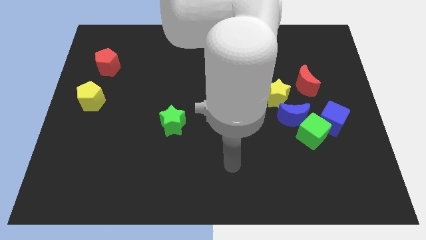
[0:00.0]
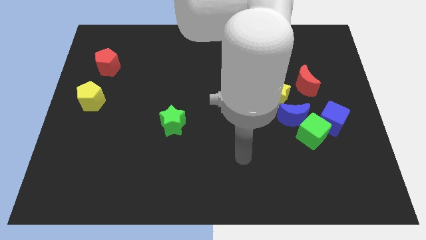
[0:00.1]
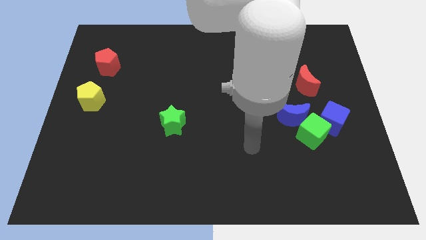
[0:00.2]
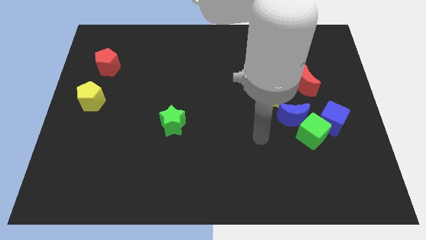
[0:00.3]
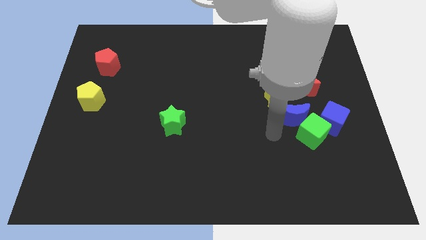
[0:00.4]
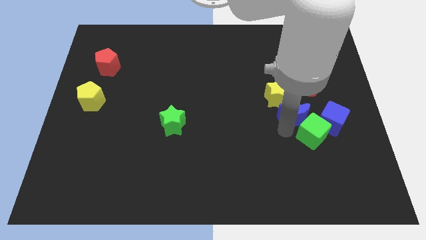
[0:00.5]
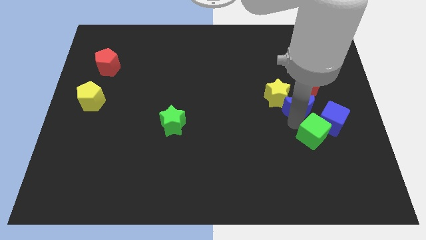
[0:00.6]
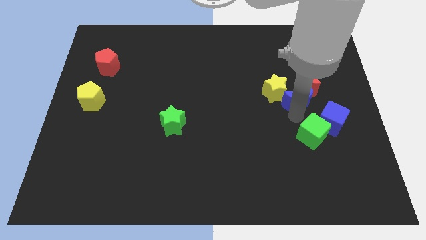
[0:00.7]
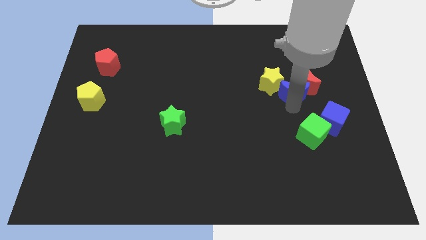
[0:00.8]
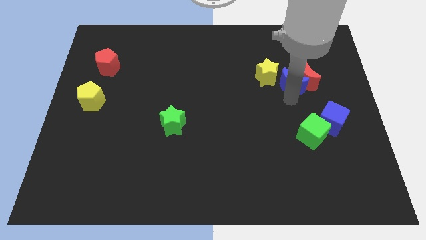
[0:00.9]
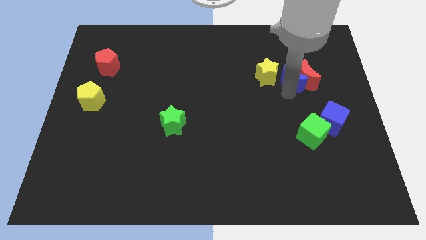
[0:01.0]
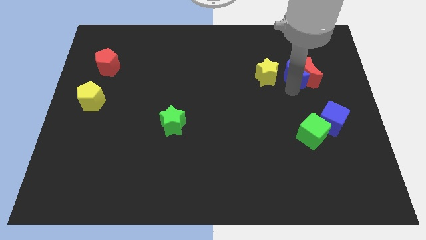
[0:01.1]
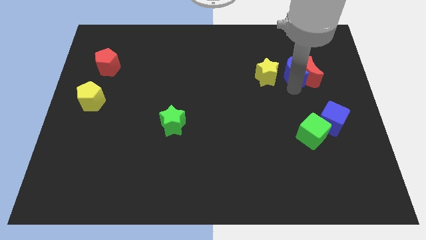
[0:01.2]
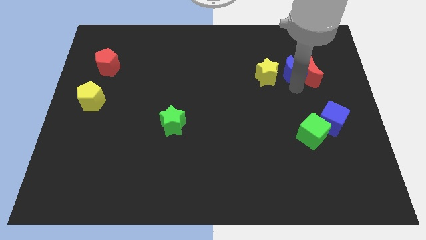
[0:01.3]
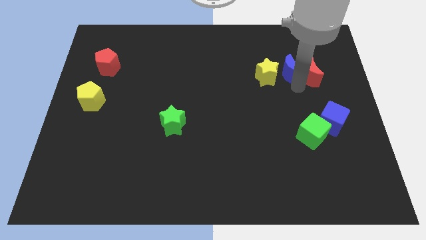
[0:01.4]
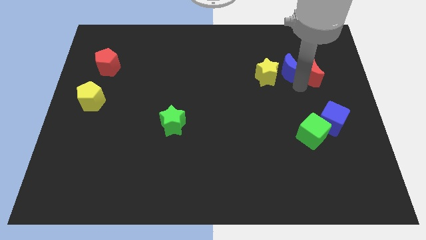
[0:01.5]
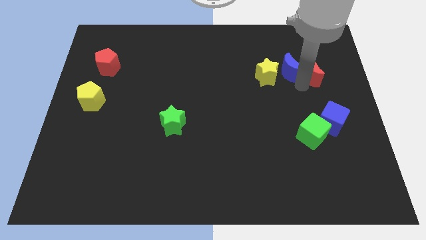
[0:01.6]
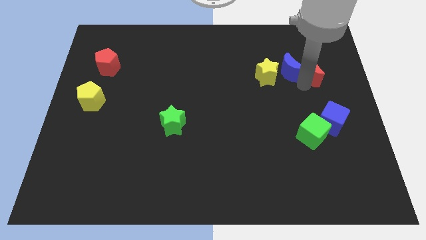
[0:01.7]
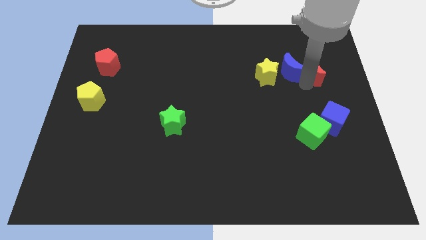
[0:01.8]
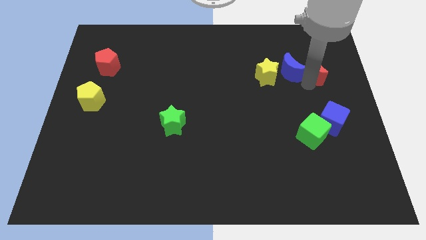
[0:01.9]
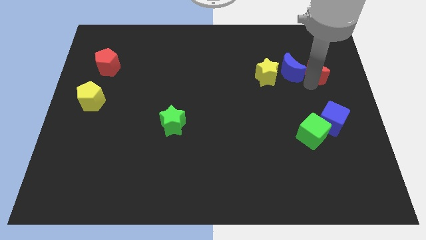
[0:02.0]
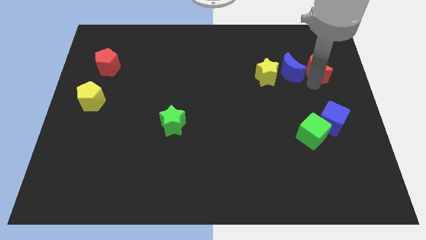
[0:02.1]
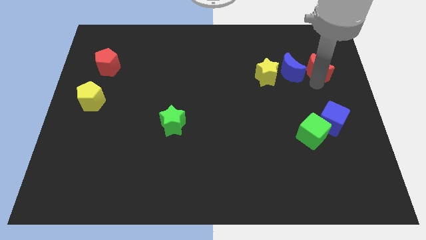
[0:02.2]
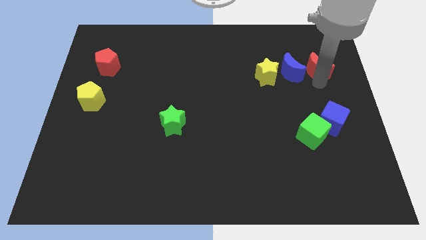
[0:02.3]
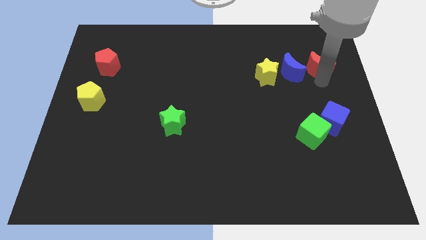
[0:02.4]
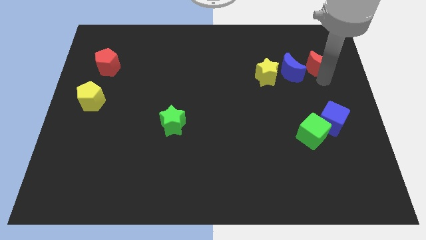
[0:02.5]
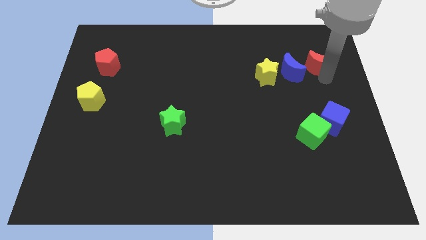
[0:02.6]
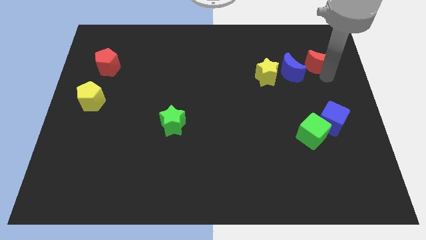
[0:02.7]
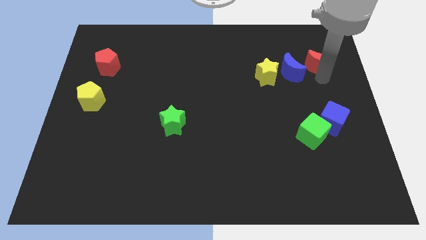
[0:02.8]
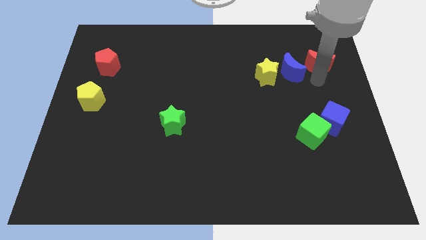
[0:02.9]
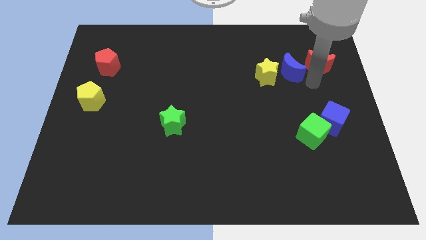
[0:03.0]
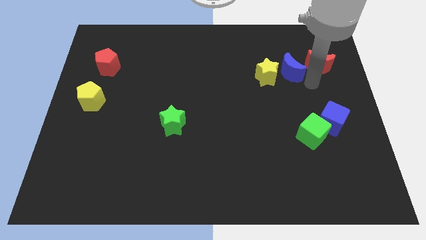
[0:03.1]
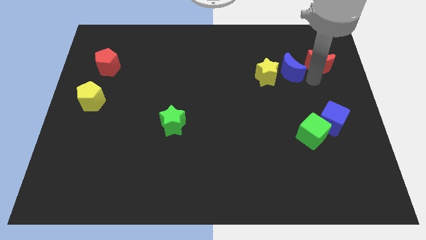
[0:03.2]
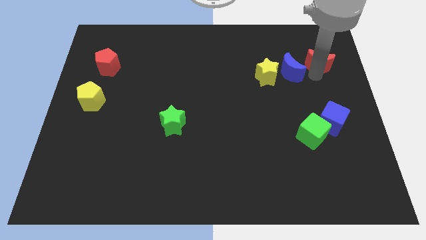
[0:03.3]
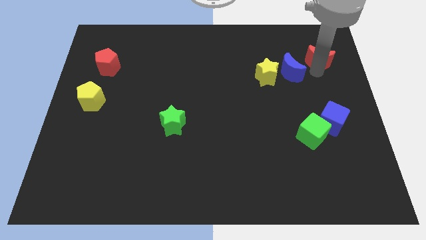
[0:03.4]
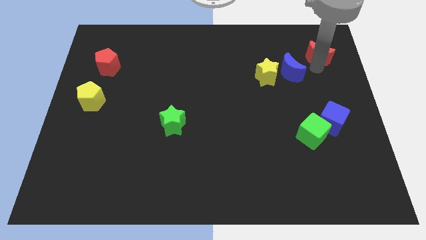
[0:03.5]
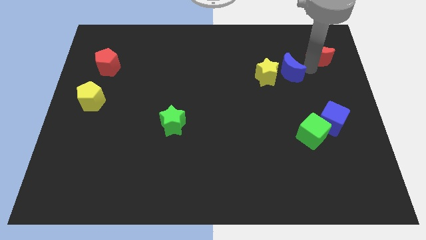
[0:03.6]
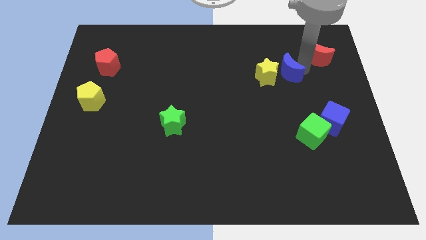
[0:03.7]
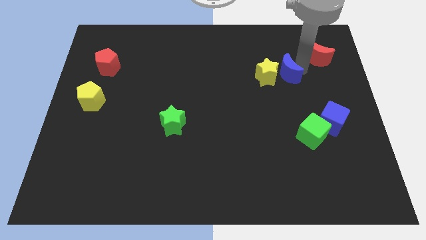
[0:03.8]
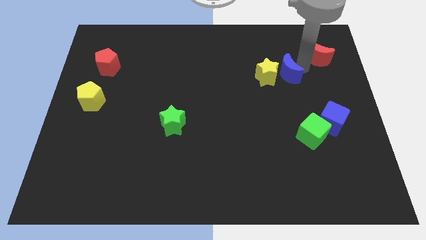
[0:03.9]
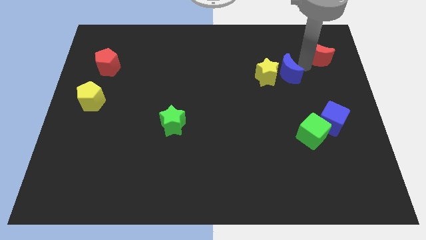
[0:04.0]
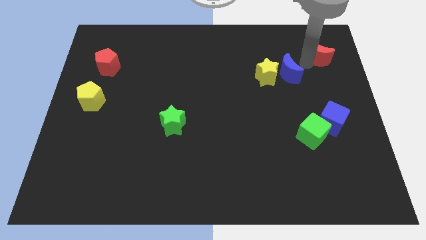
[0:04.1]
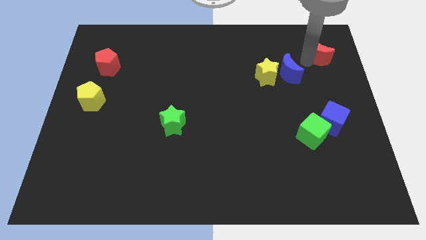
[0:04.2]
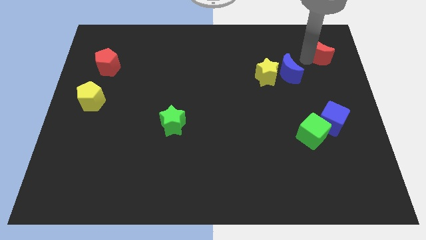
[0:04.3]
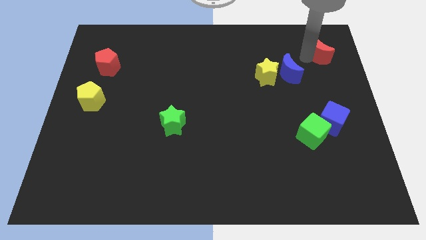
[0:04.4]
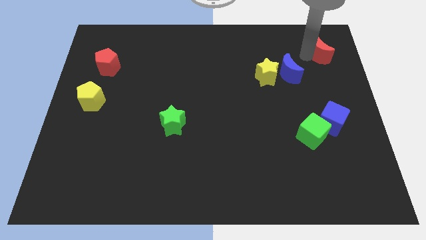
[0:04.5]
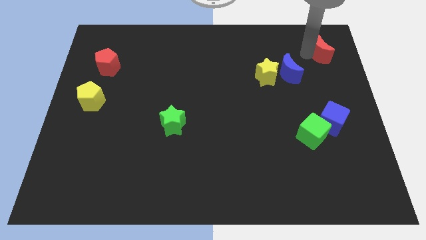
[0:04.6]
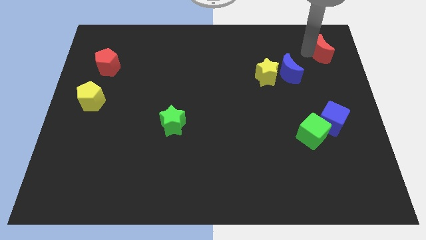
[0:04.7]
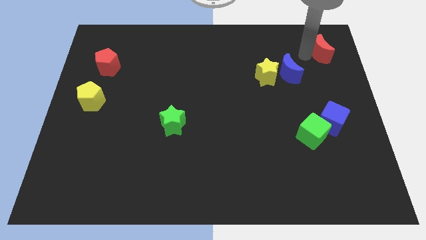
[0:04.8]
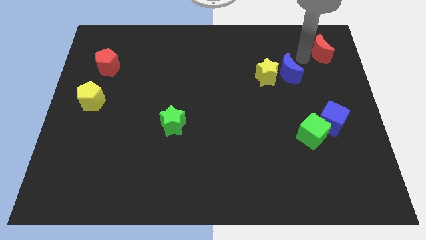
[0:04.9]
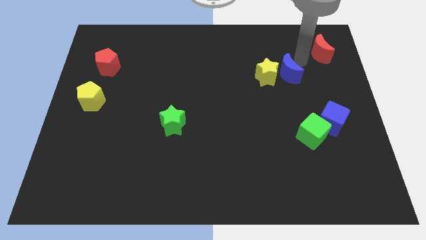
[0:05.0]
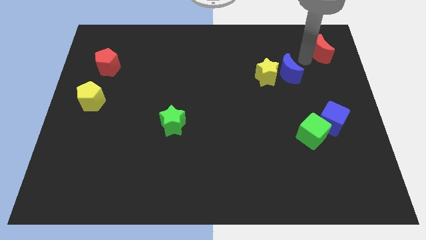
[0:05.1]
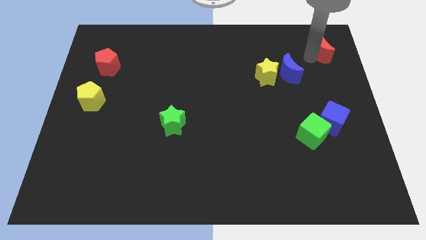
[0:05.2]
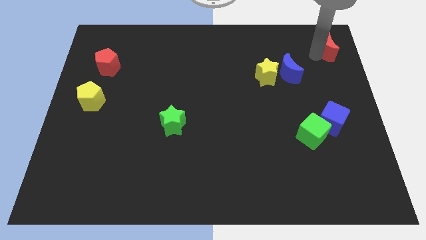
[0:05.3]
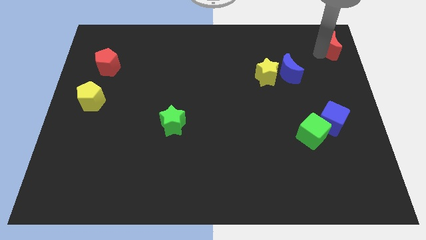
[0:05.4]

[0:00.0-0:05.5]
push the red moon to the top right of the board

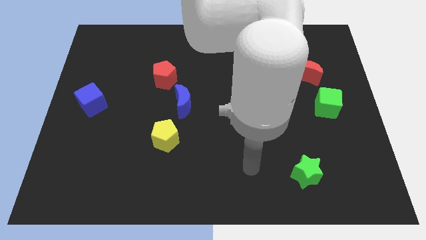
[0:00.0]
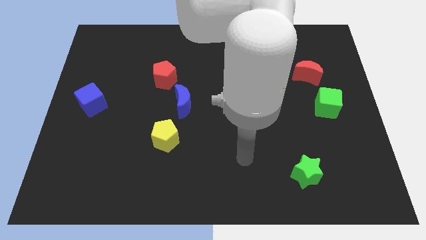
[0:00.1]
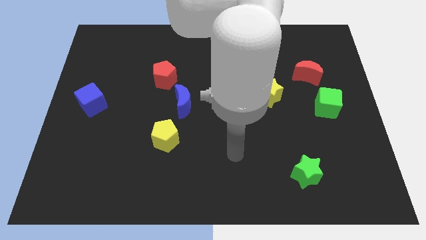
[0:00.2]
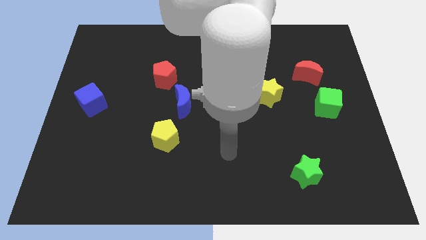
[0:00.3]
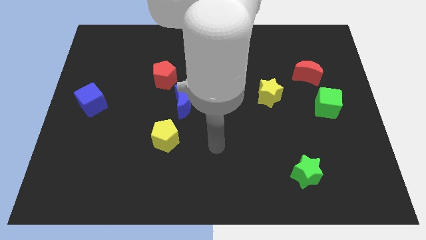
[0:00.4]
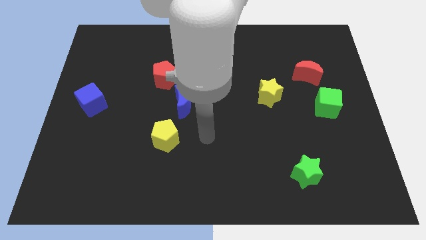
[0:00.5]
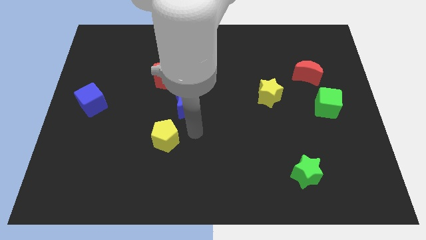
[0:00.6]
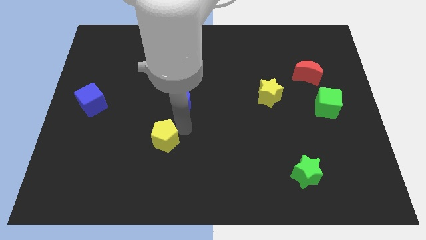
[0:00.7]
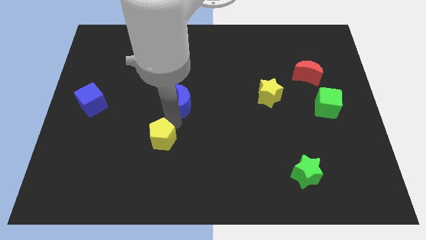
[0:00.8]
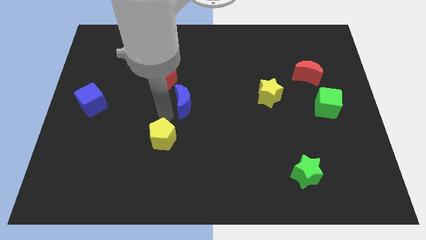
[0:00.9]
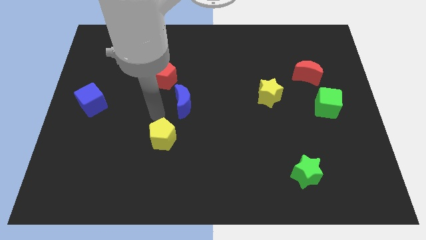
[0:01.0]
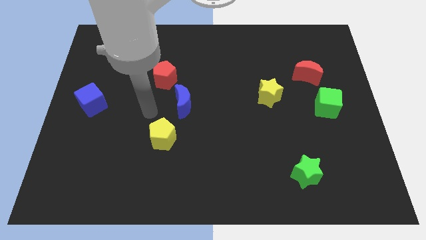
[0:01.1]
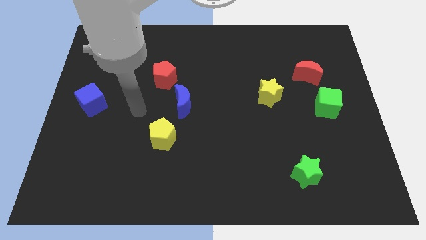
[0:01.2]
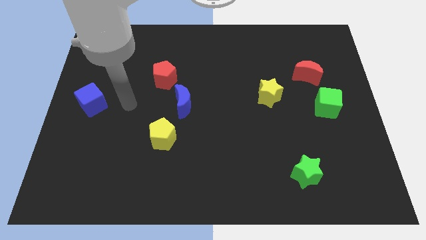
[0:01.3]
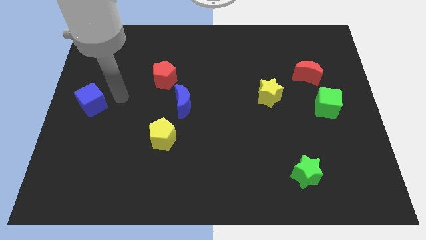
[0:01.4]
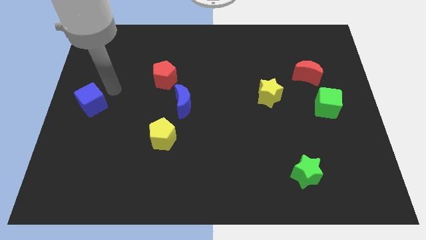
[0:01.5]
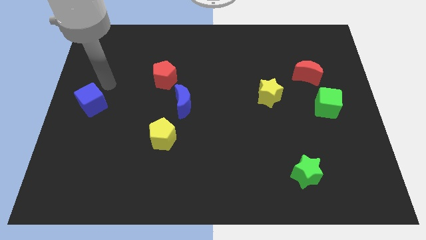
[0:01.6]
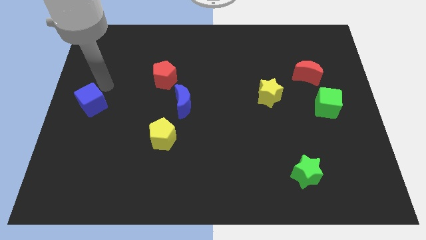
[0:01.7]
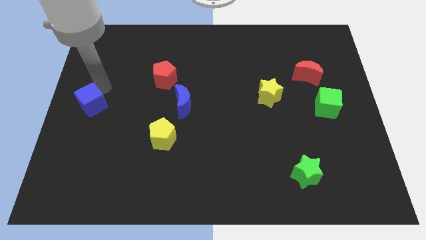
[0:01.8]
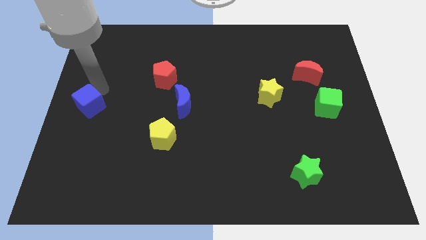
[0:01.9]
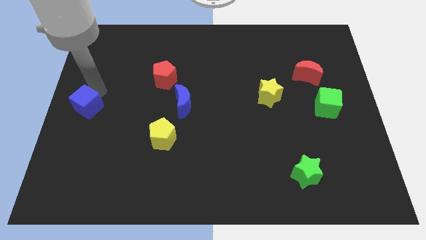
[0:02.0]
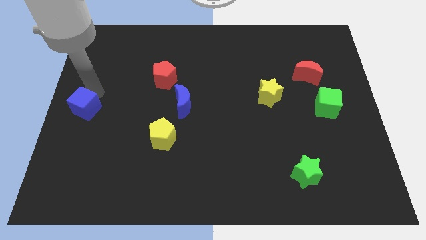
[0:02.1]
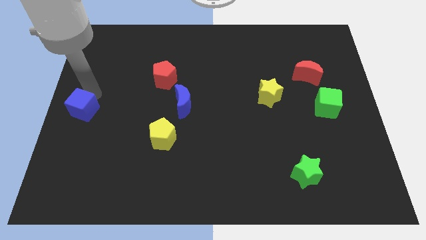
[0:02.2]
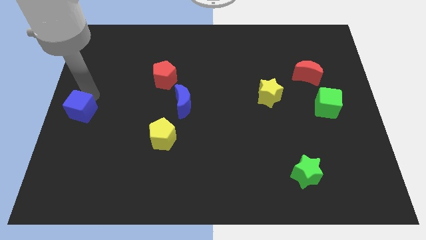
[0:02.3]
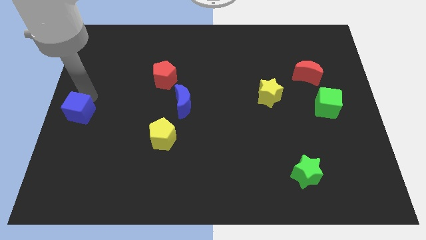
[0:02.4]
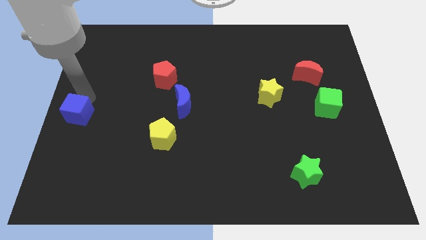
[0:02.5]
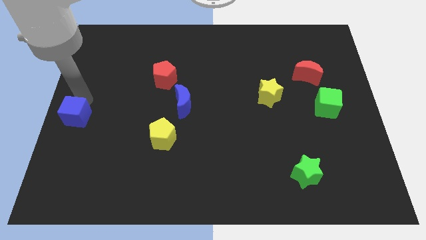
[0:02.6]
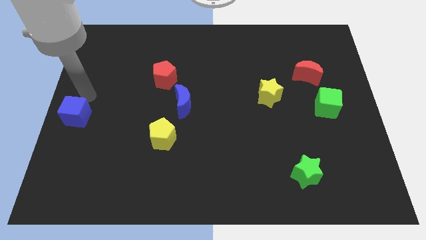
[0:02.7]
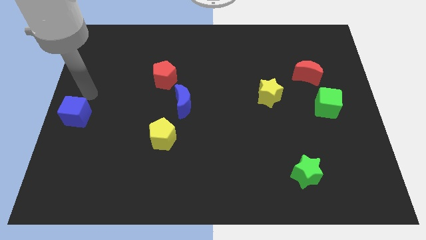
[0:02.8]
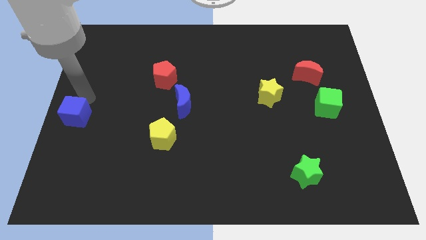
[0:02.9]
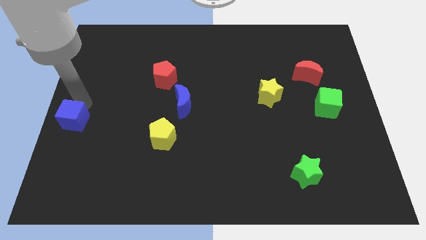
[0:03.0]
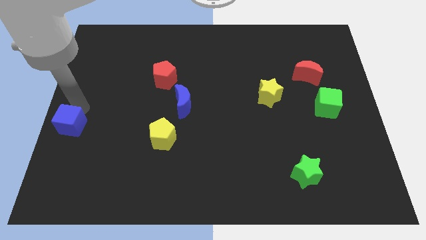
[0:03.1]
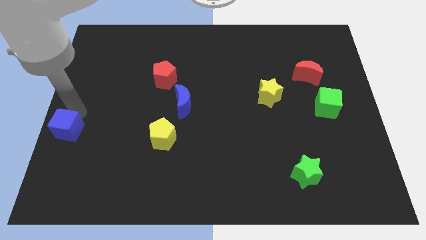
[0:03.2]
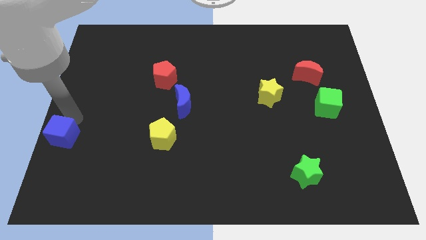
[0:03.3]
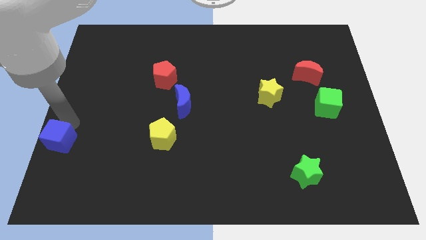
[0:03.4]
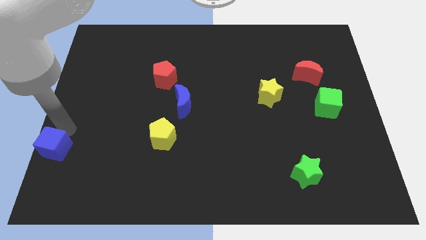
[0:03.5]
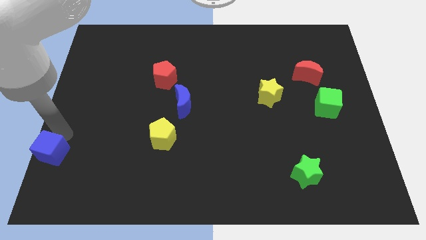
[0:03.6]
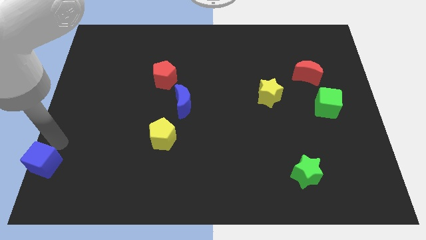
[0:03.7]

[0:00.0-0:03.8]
push the blue cube to the bottom left of the board
